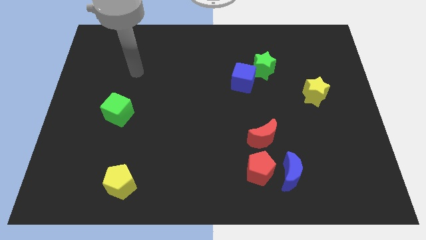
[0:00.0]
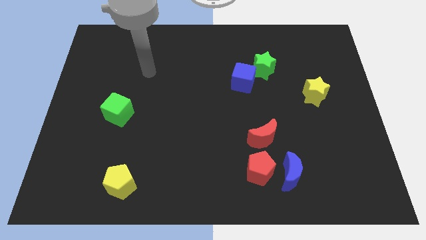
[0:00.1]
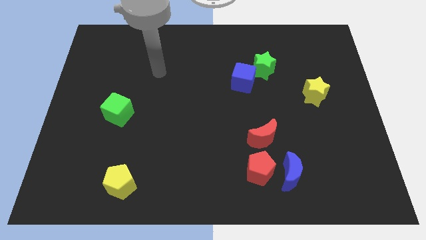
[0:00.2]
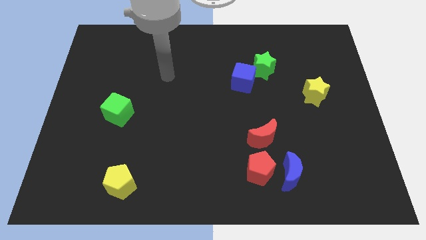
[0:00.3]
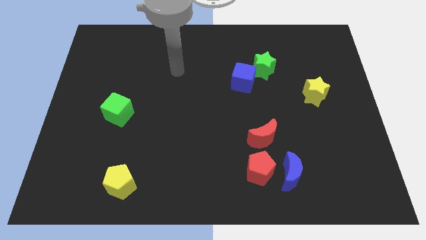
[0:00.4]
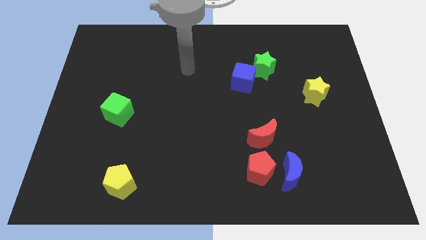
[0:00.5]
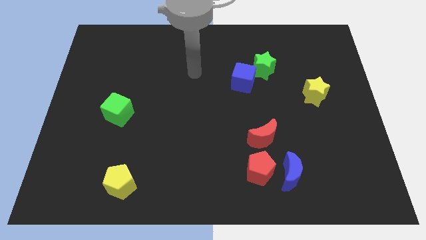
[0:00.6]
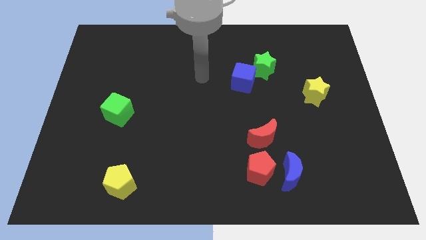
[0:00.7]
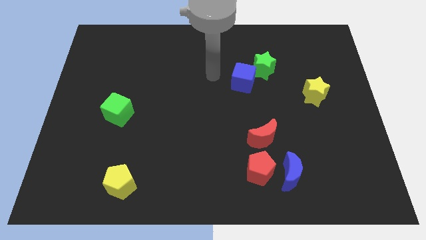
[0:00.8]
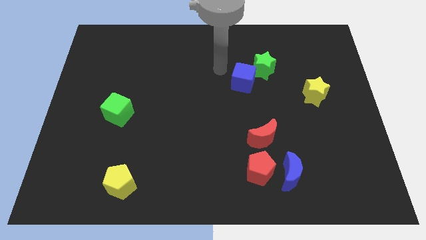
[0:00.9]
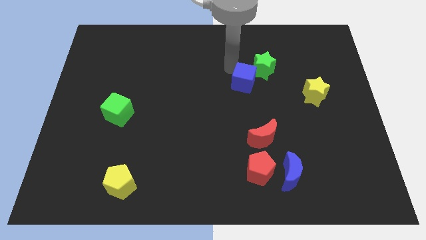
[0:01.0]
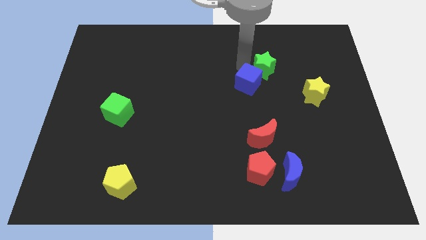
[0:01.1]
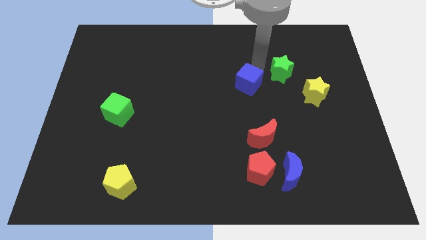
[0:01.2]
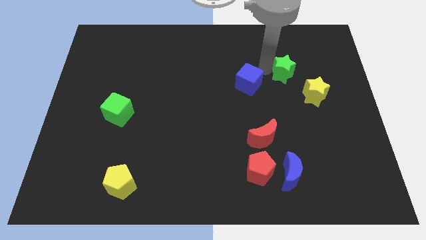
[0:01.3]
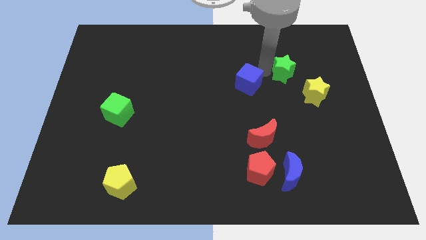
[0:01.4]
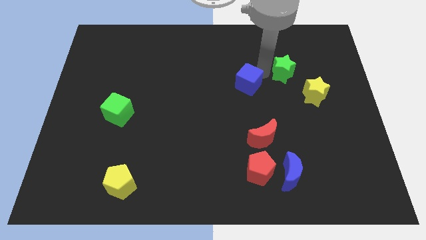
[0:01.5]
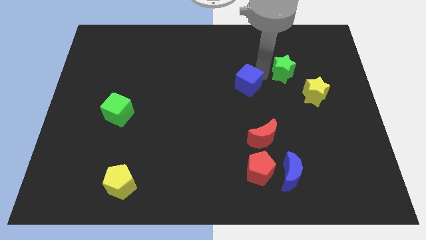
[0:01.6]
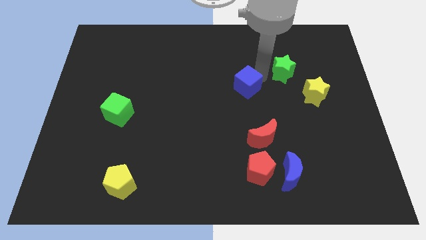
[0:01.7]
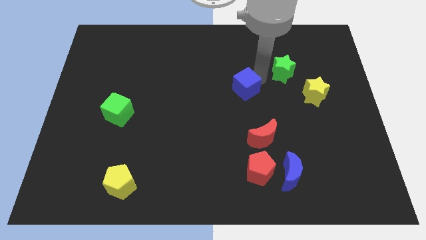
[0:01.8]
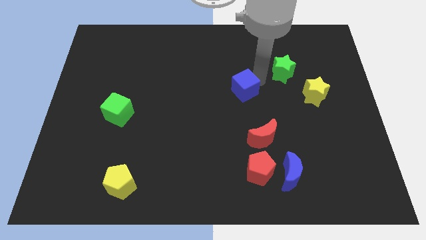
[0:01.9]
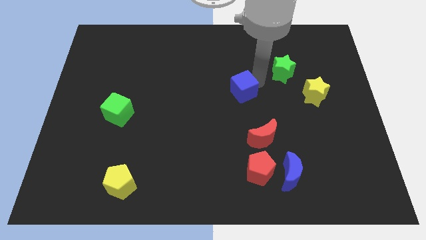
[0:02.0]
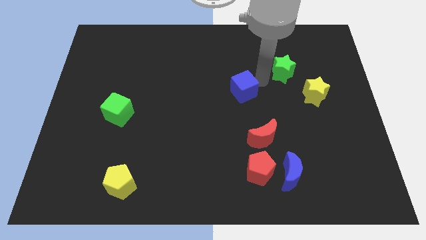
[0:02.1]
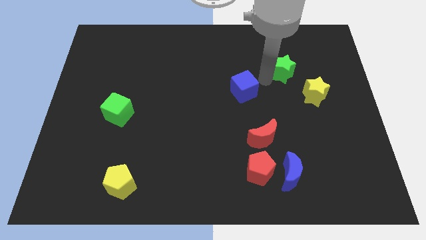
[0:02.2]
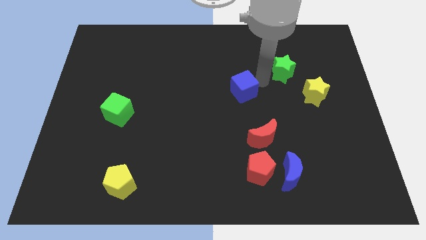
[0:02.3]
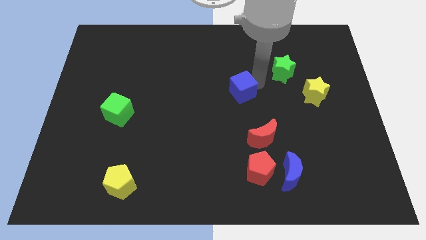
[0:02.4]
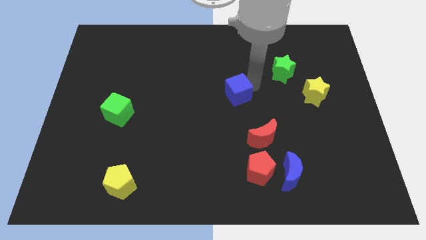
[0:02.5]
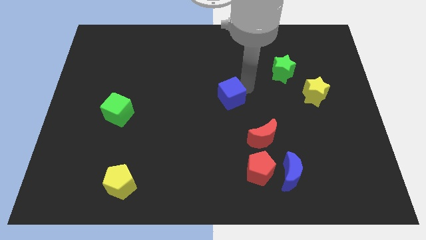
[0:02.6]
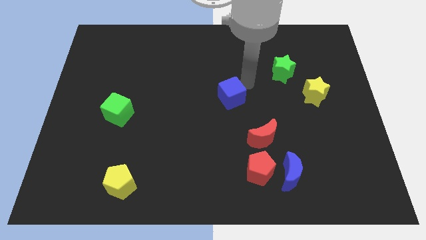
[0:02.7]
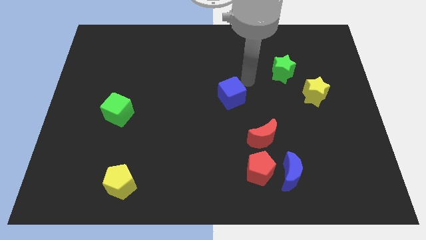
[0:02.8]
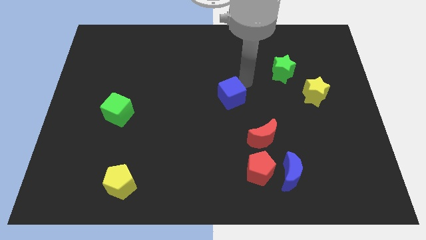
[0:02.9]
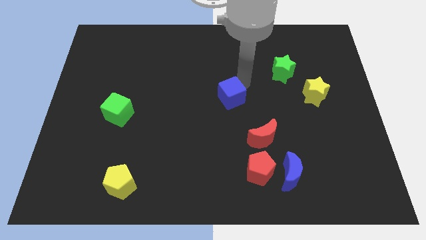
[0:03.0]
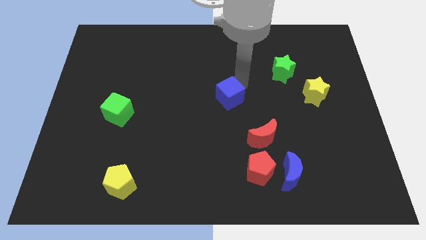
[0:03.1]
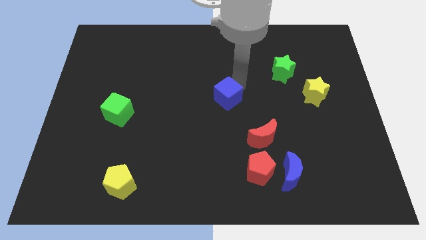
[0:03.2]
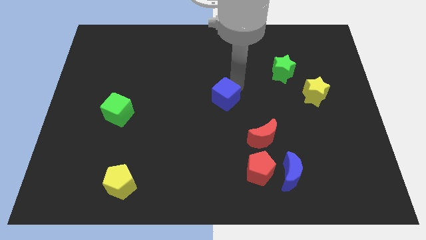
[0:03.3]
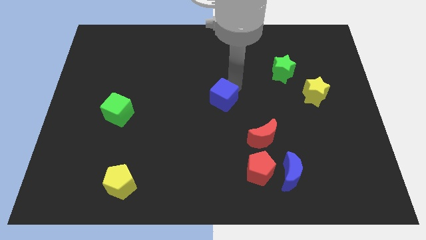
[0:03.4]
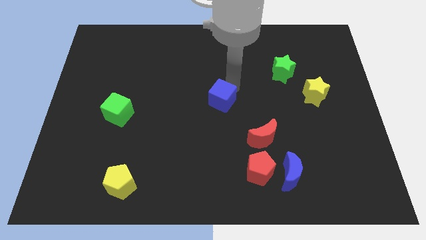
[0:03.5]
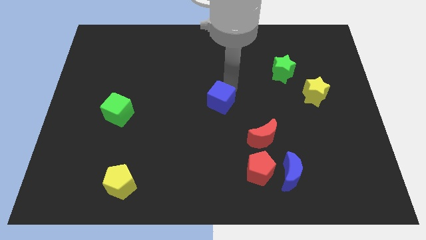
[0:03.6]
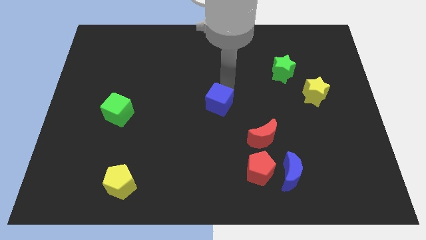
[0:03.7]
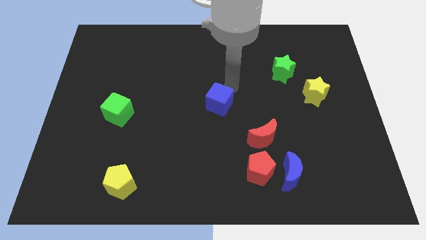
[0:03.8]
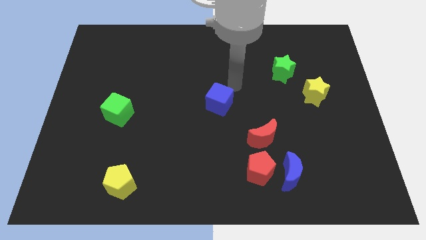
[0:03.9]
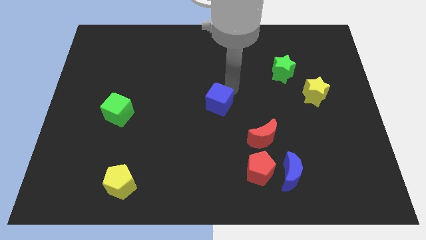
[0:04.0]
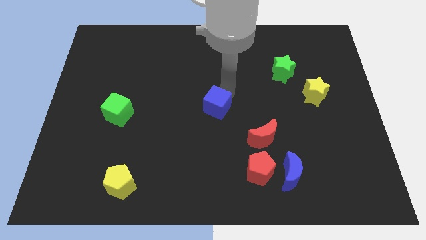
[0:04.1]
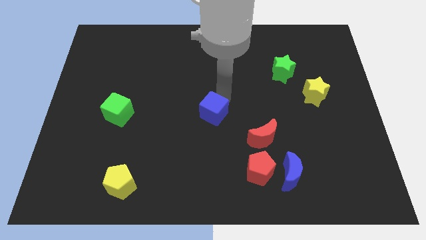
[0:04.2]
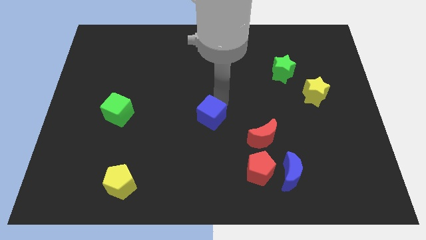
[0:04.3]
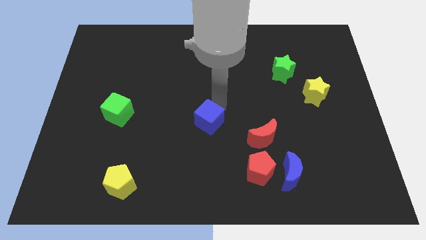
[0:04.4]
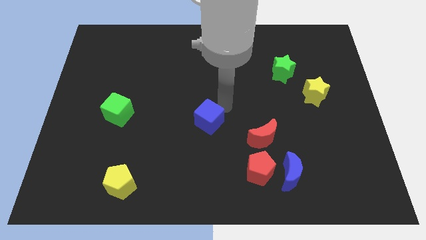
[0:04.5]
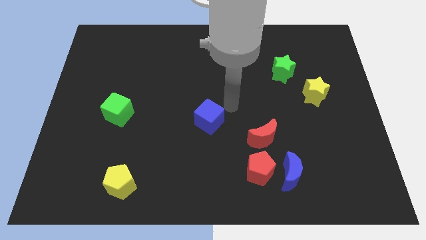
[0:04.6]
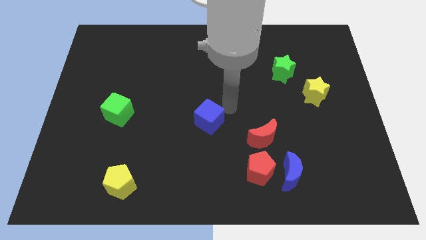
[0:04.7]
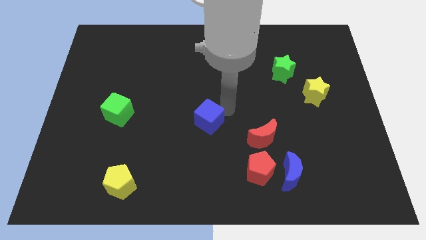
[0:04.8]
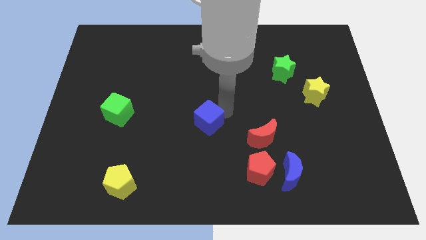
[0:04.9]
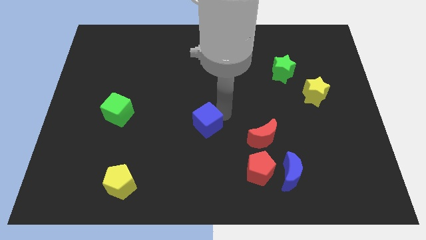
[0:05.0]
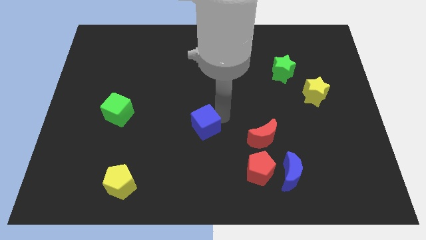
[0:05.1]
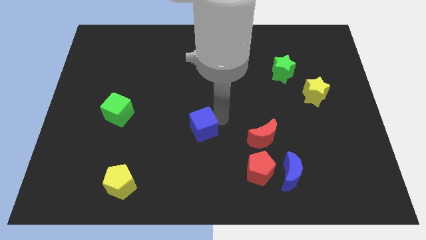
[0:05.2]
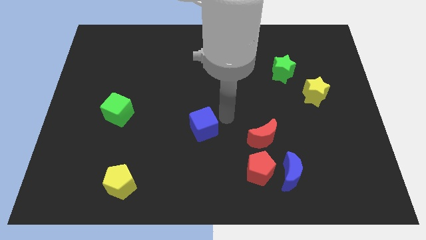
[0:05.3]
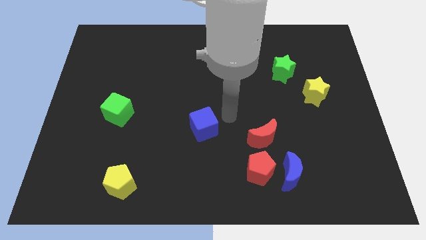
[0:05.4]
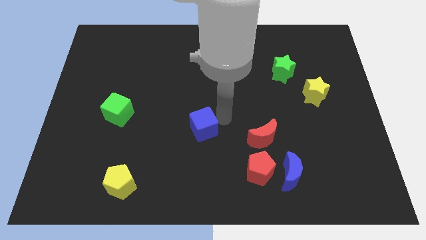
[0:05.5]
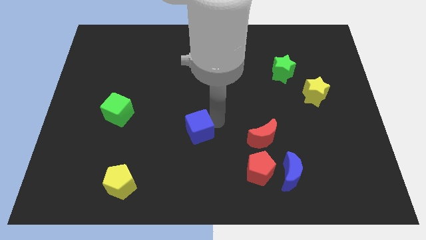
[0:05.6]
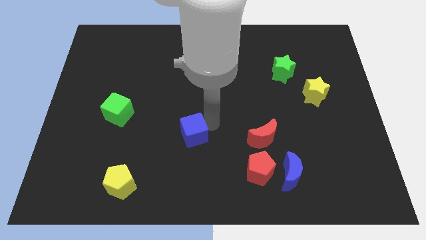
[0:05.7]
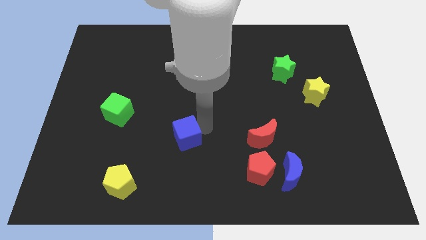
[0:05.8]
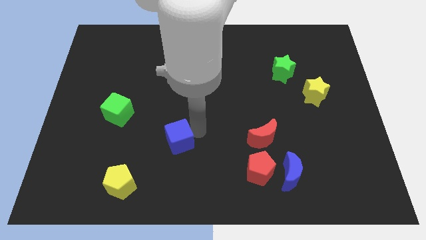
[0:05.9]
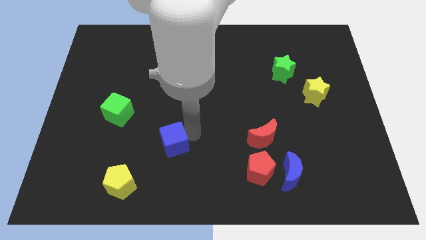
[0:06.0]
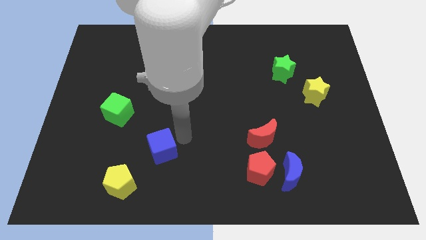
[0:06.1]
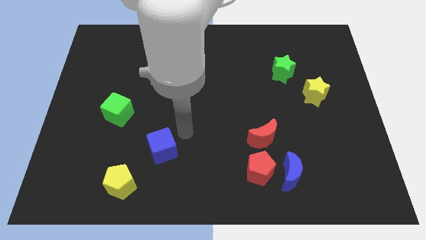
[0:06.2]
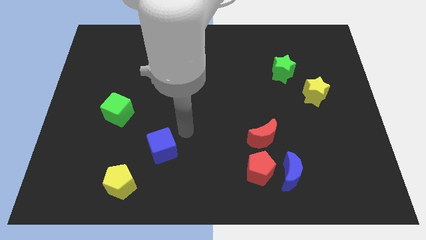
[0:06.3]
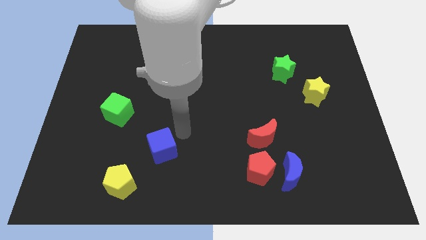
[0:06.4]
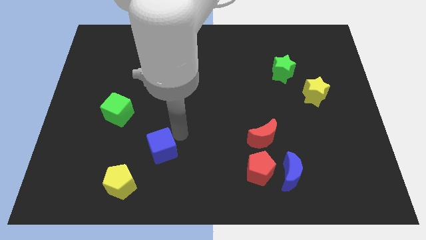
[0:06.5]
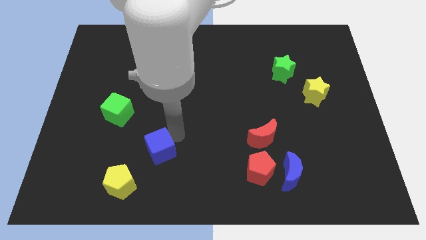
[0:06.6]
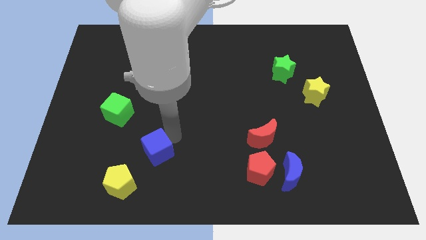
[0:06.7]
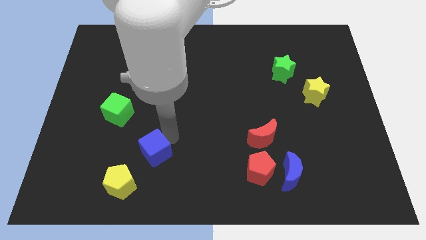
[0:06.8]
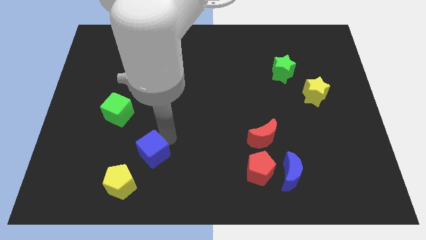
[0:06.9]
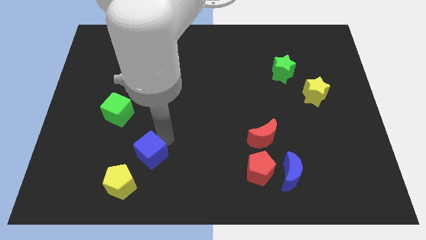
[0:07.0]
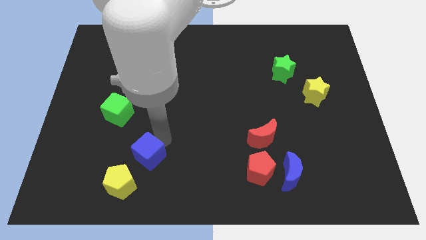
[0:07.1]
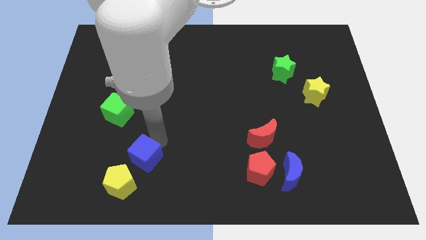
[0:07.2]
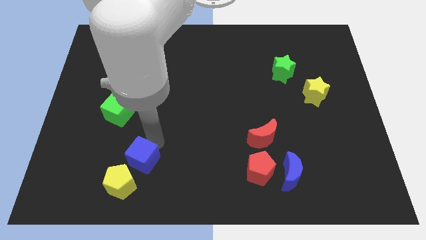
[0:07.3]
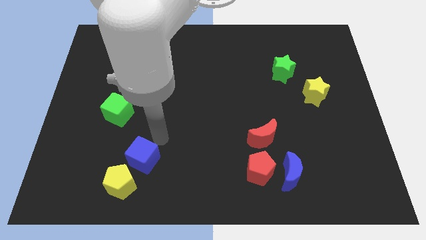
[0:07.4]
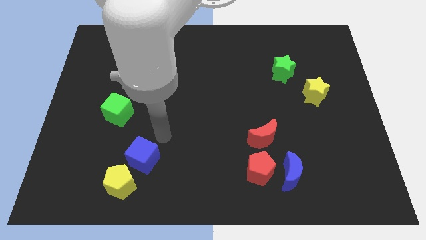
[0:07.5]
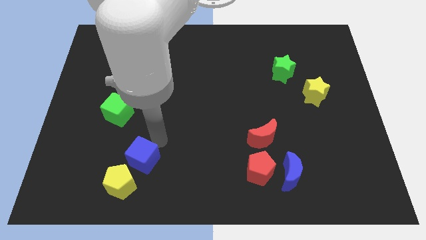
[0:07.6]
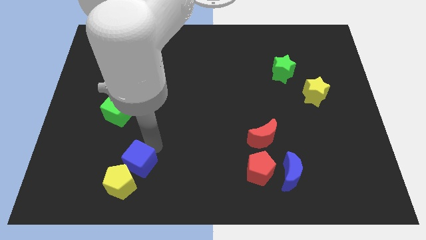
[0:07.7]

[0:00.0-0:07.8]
put the blue cube close to the yellow pentagon
